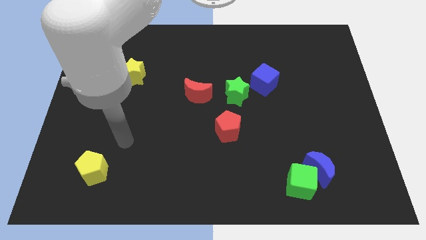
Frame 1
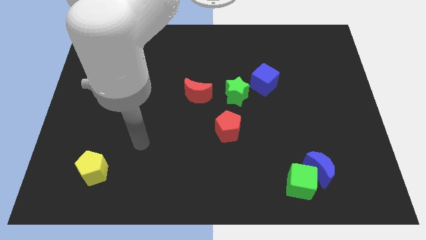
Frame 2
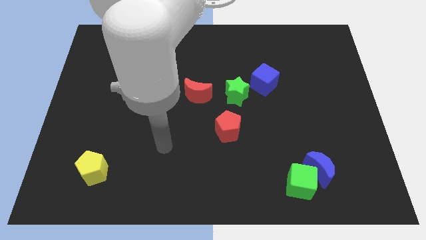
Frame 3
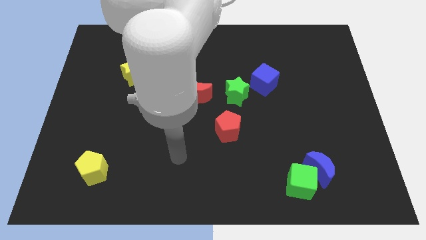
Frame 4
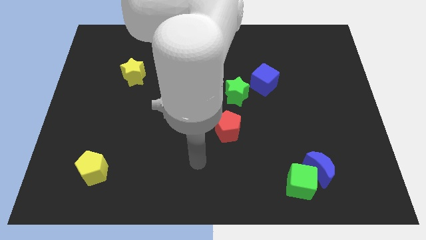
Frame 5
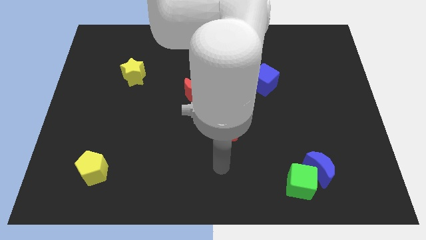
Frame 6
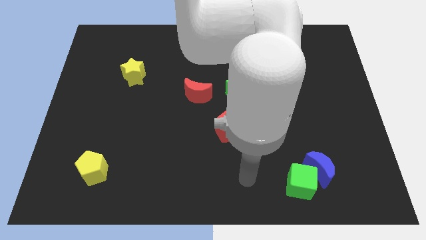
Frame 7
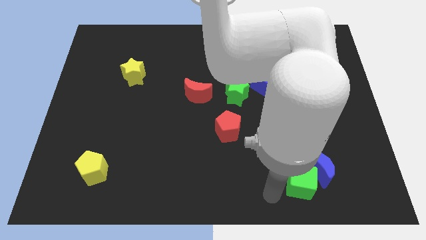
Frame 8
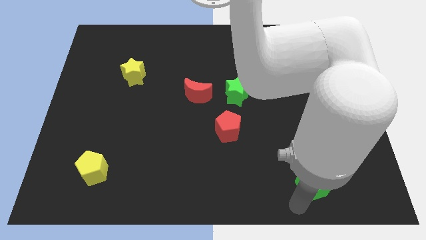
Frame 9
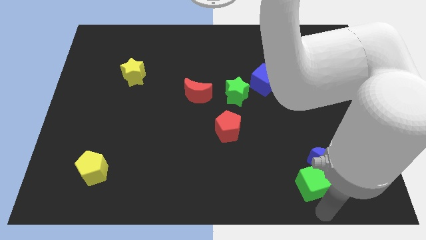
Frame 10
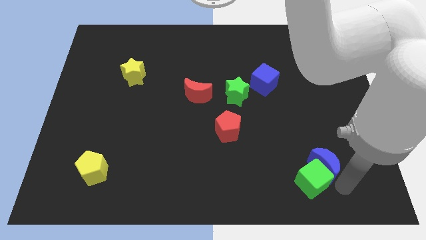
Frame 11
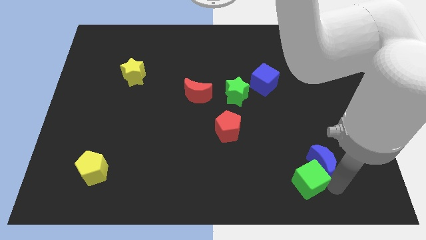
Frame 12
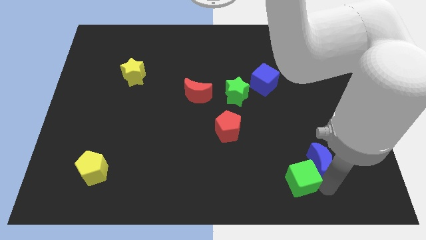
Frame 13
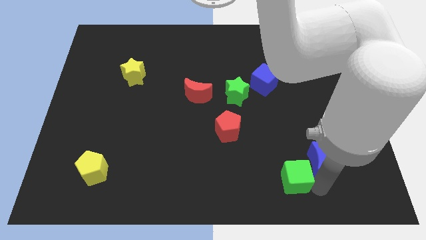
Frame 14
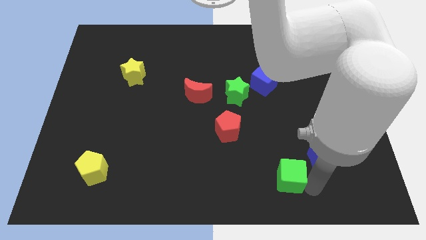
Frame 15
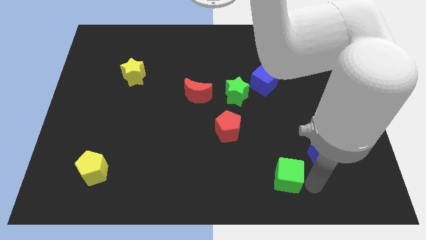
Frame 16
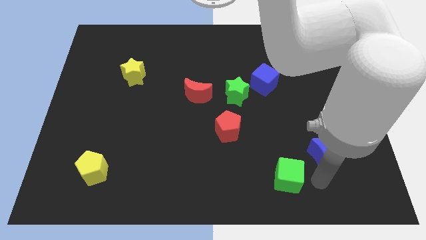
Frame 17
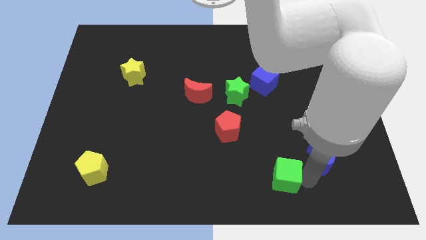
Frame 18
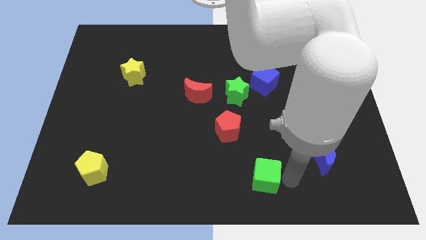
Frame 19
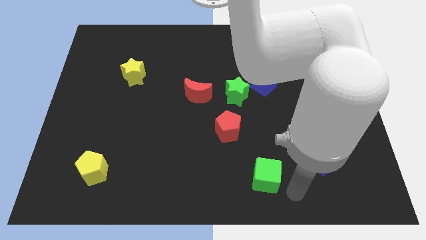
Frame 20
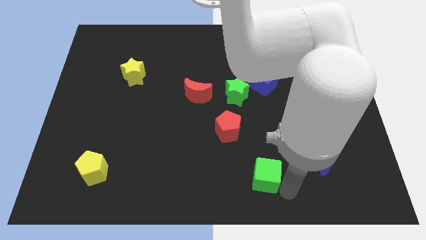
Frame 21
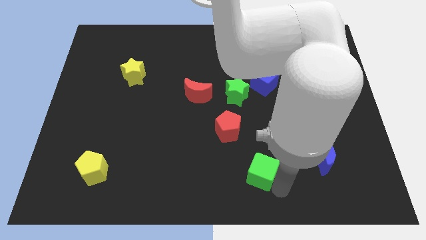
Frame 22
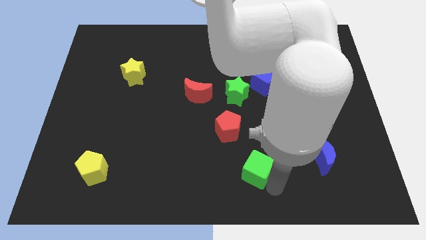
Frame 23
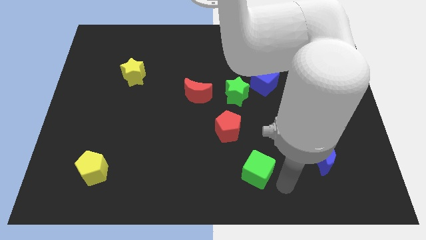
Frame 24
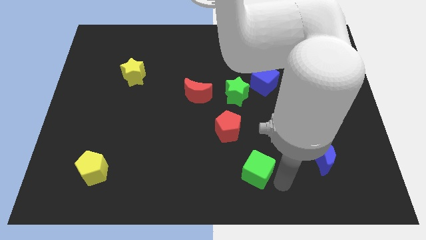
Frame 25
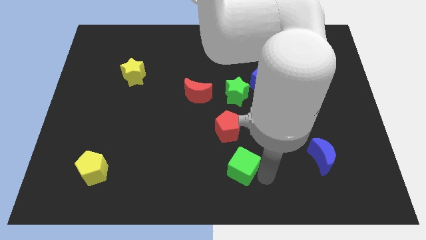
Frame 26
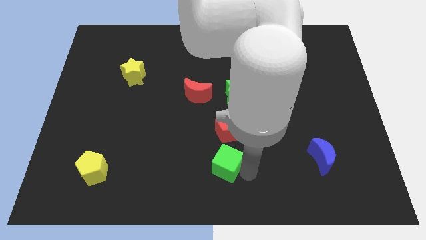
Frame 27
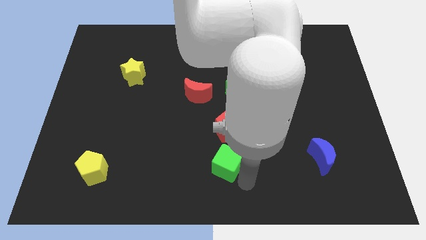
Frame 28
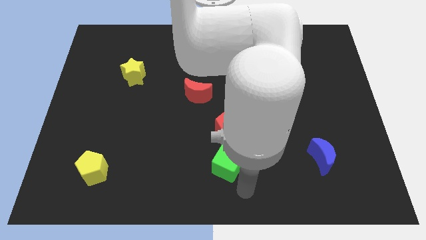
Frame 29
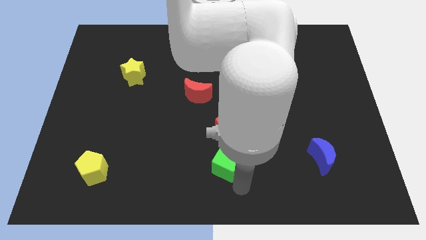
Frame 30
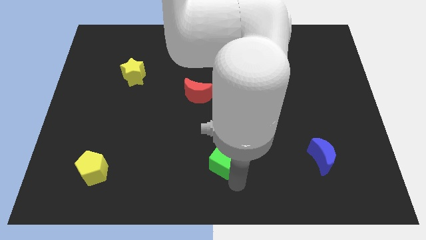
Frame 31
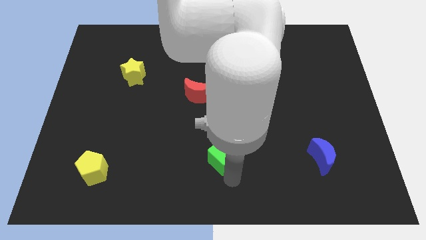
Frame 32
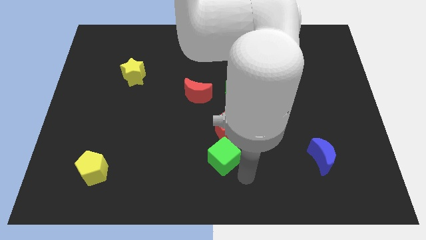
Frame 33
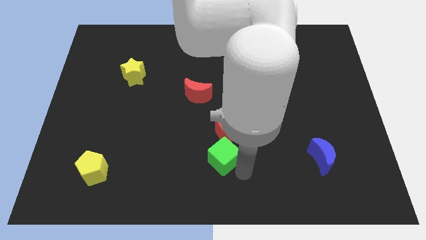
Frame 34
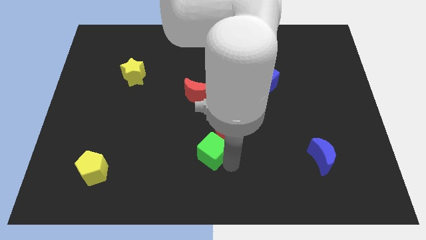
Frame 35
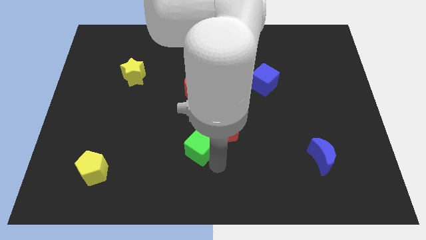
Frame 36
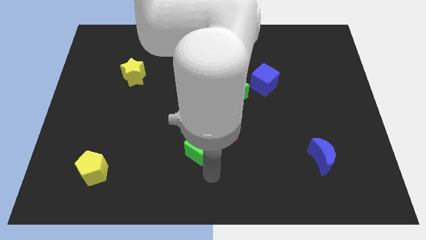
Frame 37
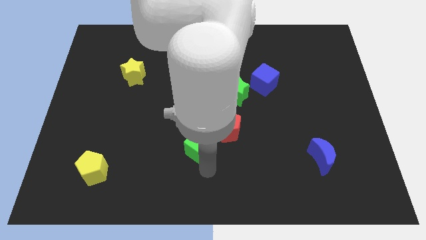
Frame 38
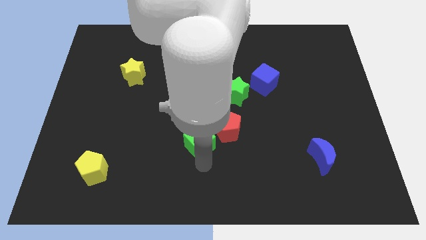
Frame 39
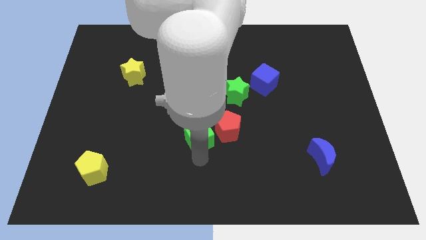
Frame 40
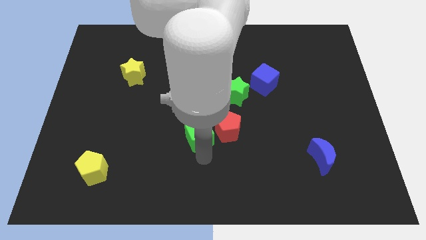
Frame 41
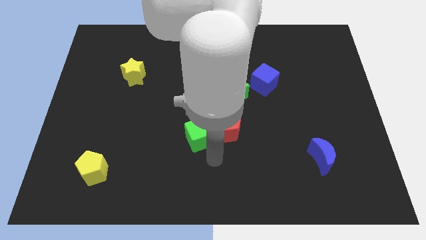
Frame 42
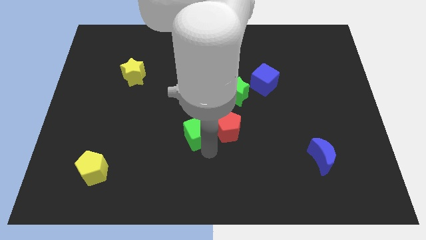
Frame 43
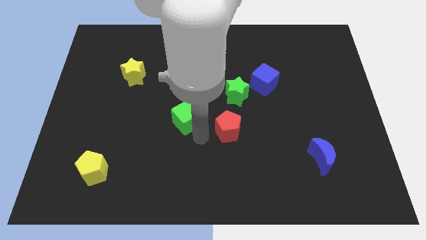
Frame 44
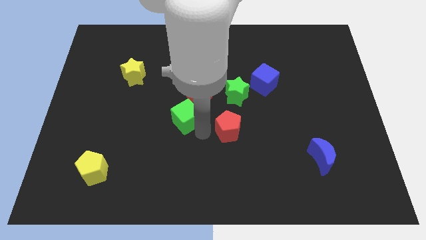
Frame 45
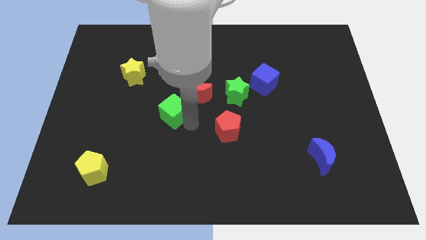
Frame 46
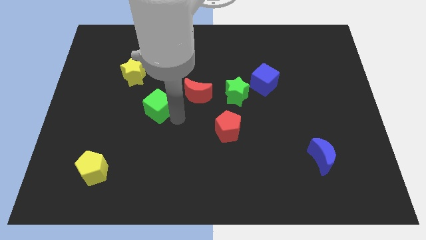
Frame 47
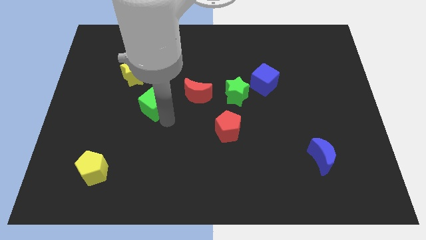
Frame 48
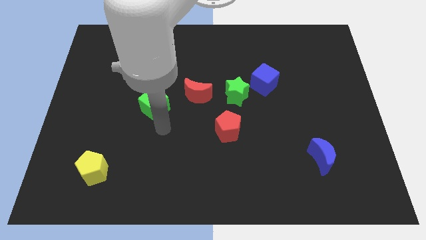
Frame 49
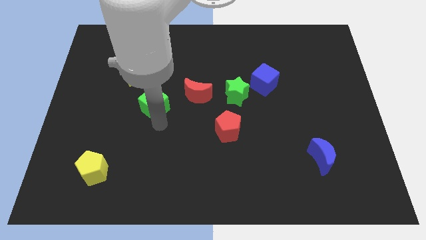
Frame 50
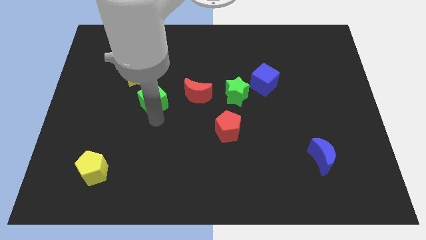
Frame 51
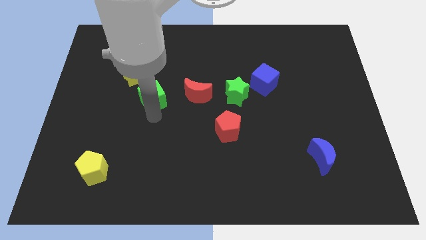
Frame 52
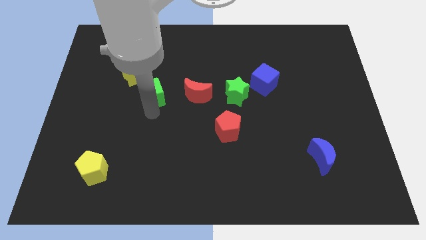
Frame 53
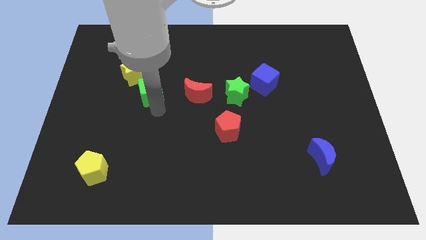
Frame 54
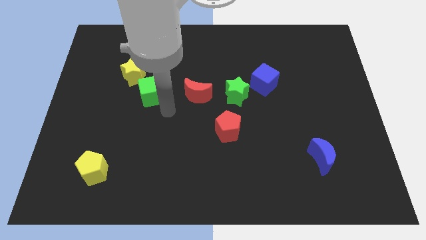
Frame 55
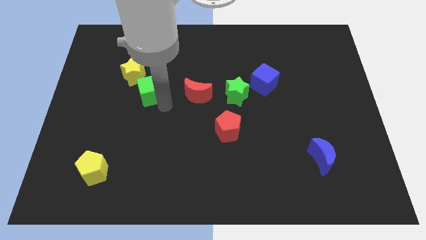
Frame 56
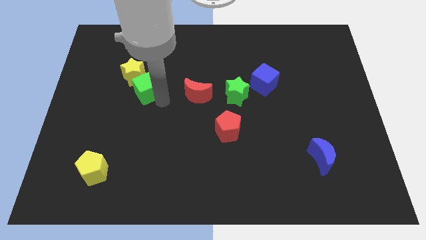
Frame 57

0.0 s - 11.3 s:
put the green cube to the yellow star

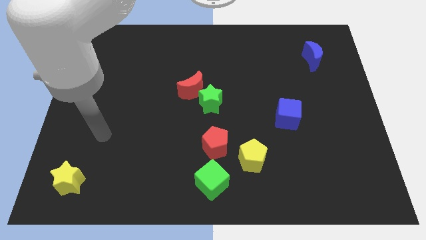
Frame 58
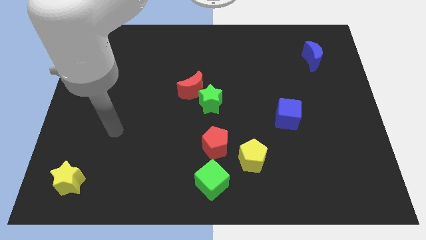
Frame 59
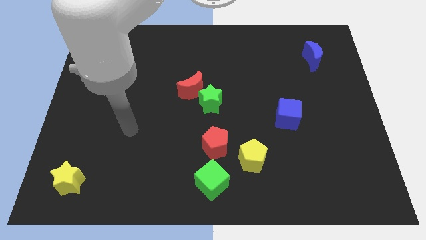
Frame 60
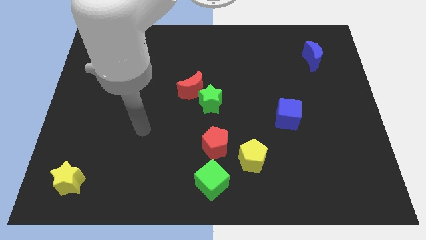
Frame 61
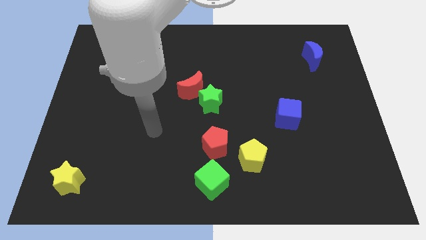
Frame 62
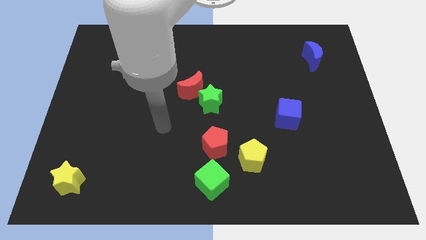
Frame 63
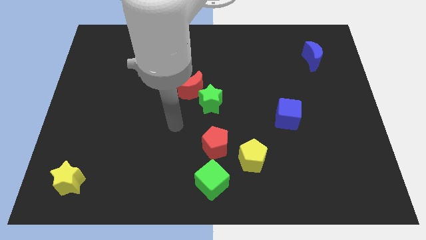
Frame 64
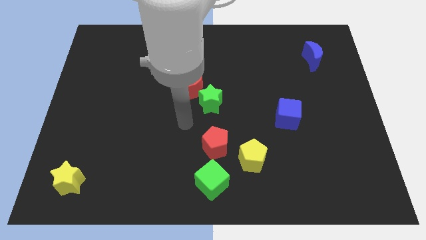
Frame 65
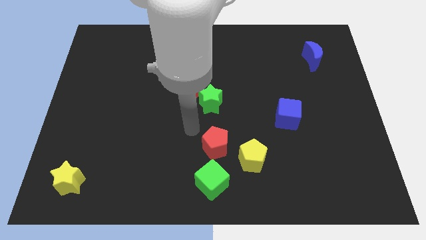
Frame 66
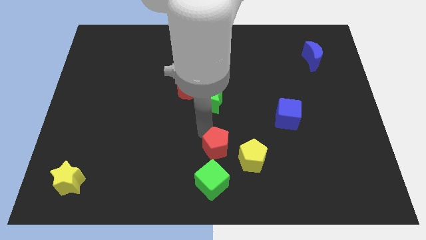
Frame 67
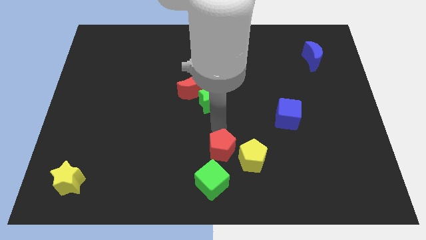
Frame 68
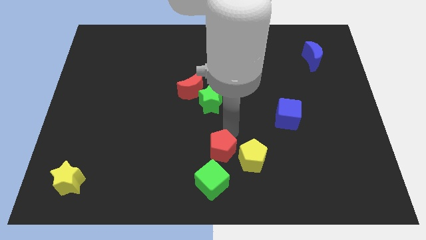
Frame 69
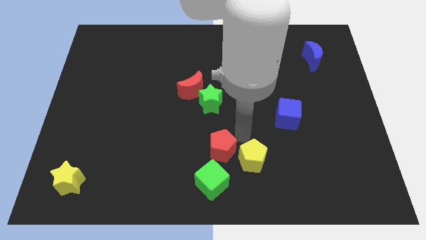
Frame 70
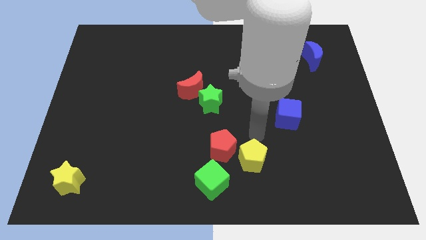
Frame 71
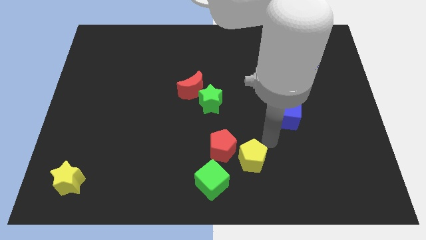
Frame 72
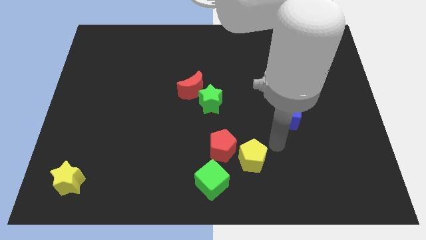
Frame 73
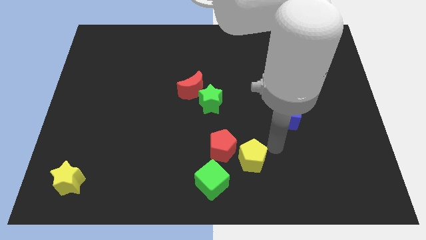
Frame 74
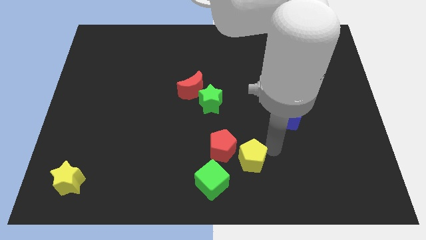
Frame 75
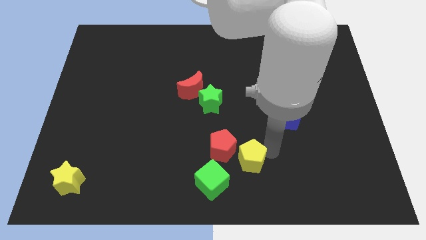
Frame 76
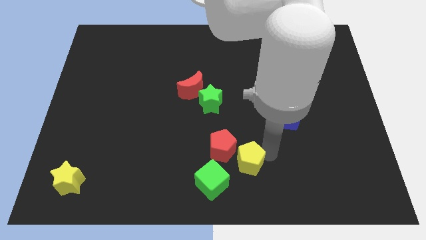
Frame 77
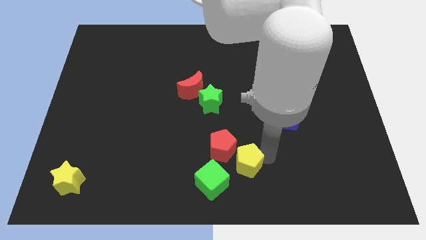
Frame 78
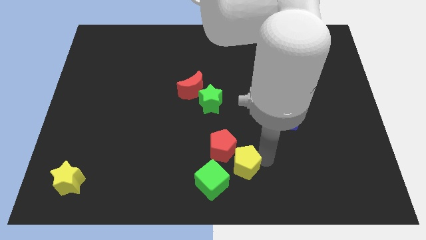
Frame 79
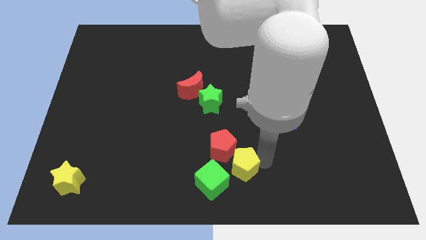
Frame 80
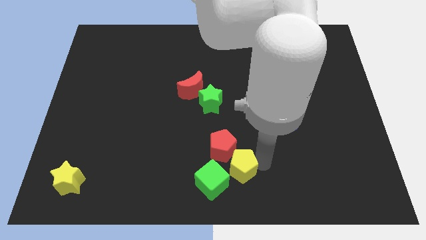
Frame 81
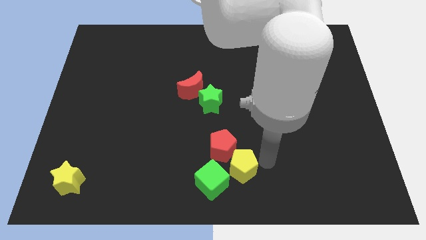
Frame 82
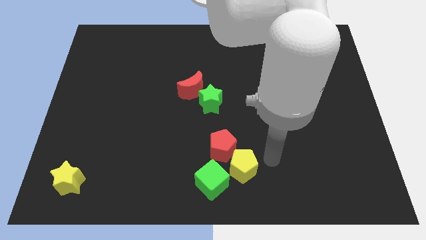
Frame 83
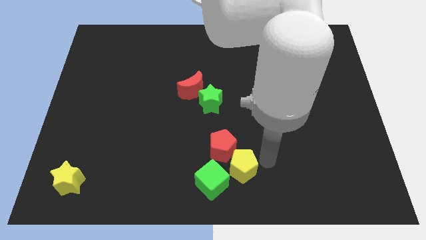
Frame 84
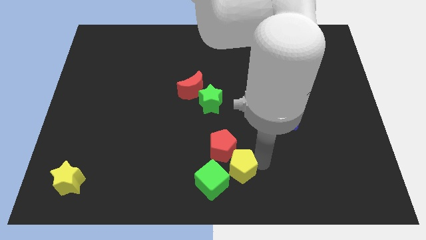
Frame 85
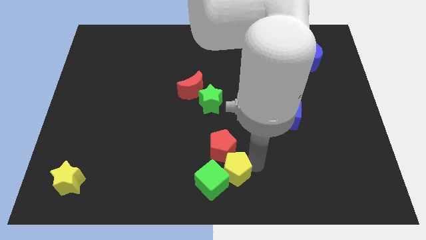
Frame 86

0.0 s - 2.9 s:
put the yellow pentagon close to the green cube
